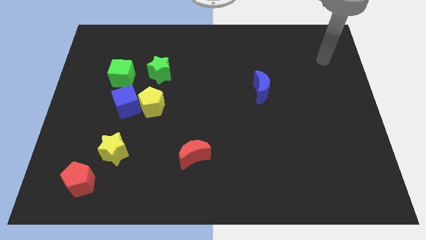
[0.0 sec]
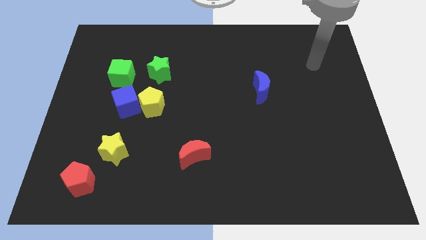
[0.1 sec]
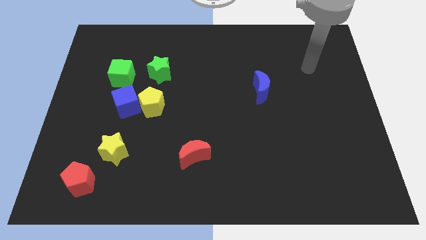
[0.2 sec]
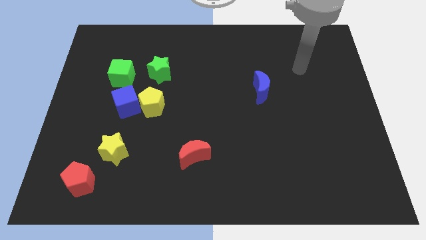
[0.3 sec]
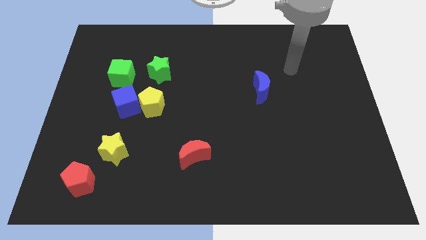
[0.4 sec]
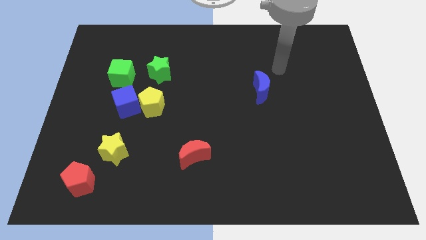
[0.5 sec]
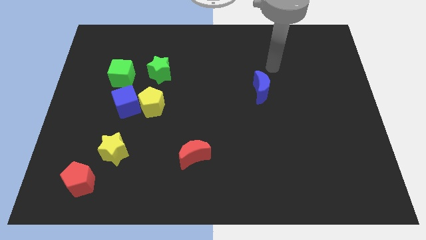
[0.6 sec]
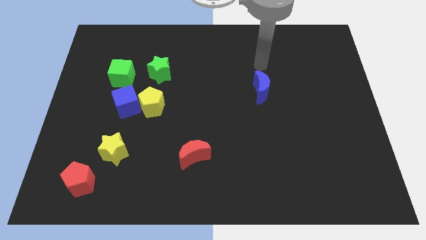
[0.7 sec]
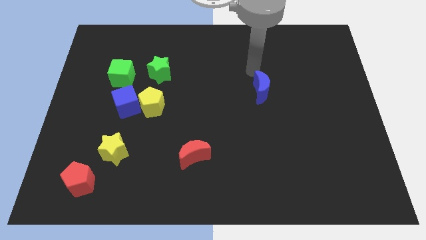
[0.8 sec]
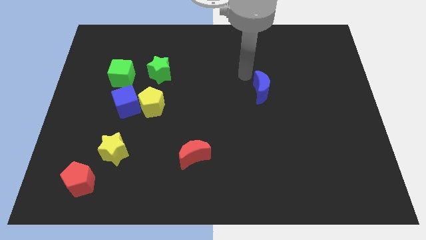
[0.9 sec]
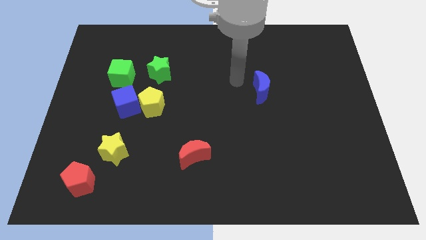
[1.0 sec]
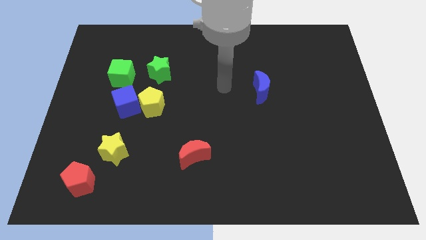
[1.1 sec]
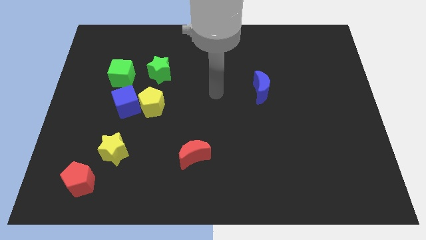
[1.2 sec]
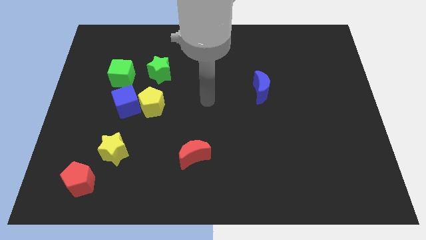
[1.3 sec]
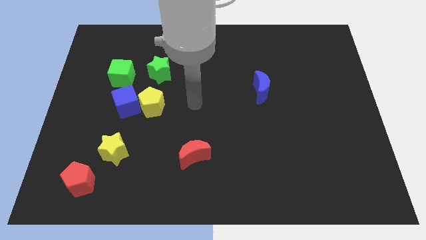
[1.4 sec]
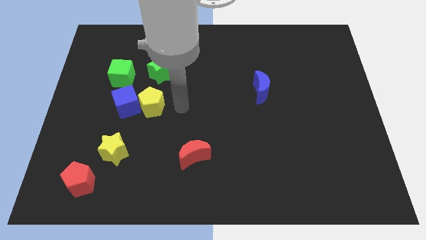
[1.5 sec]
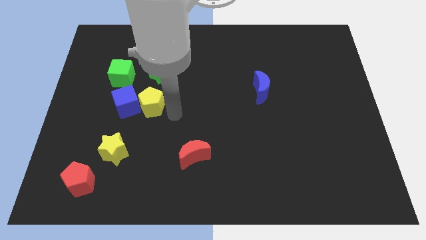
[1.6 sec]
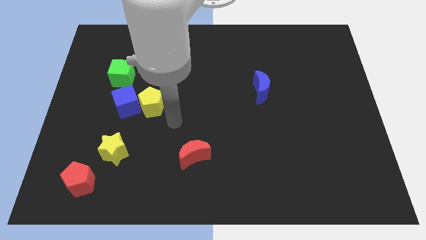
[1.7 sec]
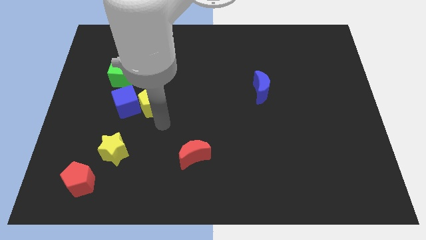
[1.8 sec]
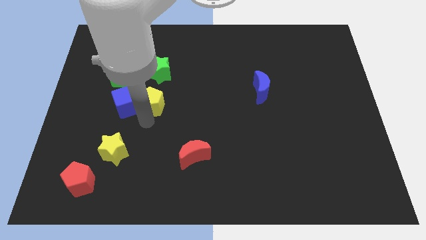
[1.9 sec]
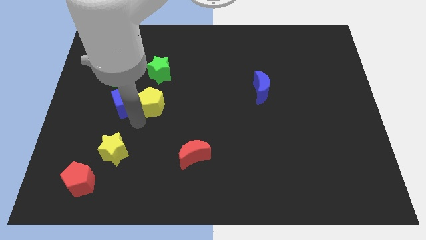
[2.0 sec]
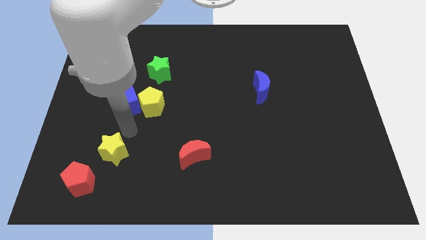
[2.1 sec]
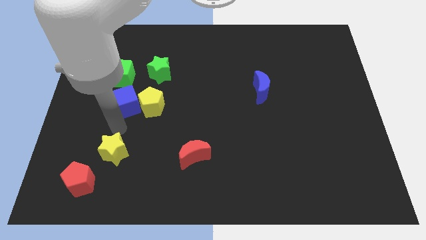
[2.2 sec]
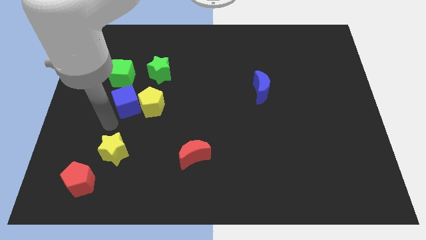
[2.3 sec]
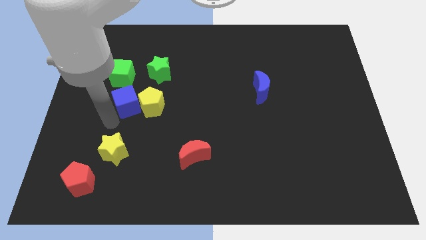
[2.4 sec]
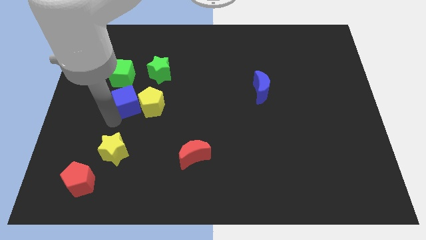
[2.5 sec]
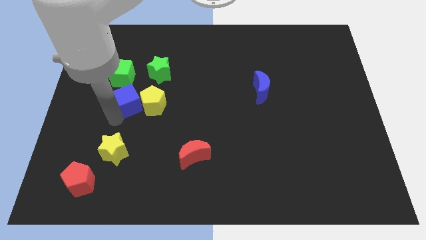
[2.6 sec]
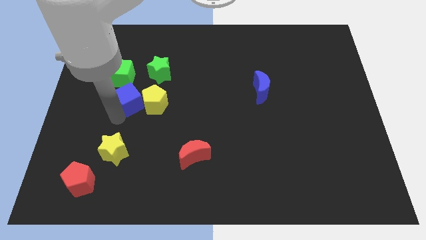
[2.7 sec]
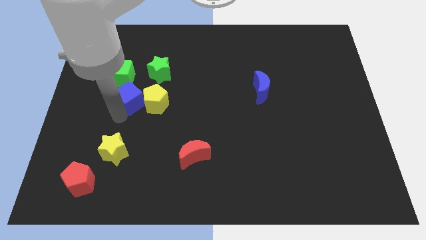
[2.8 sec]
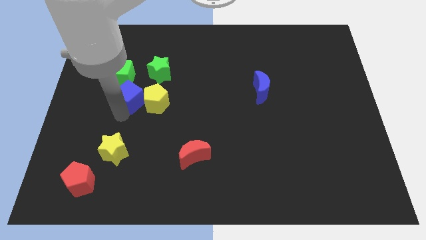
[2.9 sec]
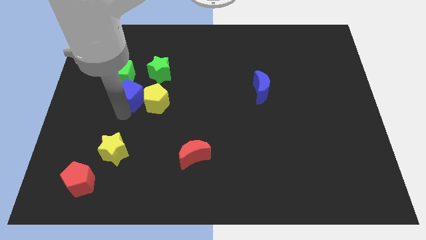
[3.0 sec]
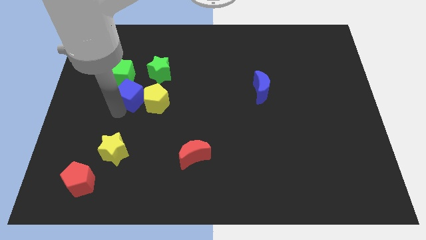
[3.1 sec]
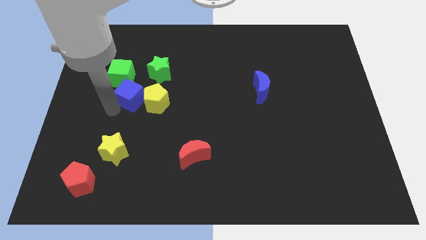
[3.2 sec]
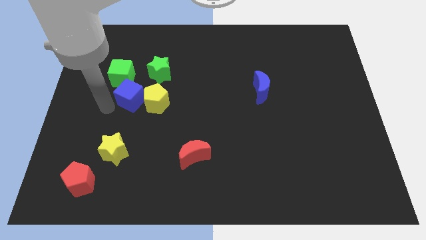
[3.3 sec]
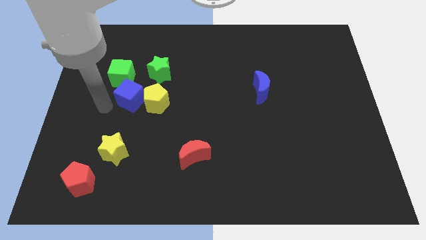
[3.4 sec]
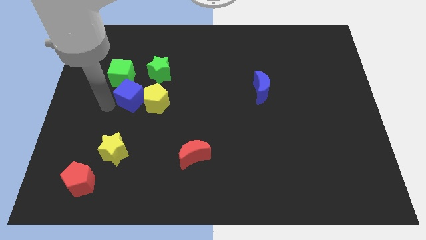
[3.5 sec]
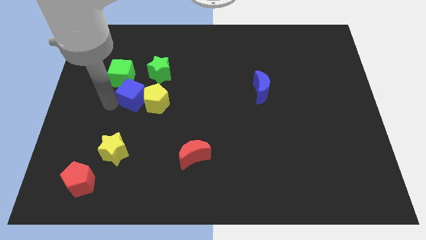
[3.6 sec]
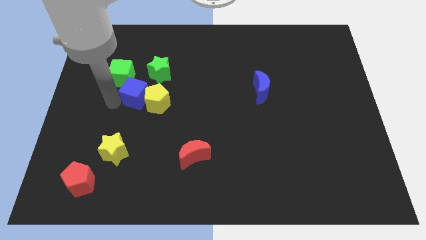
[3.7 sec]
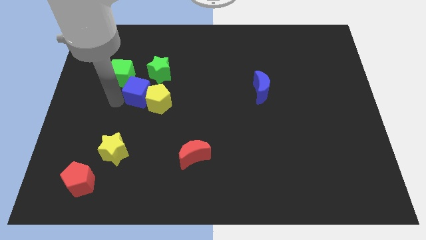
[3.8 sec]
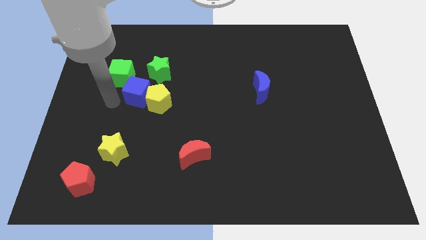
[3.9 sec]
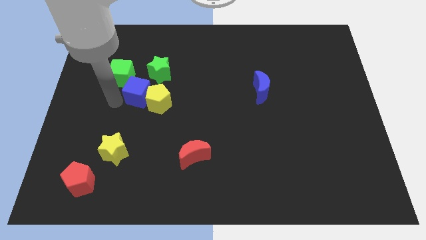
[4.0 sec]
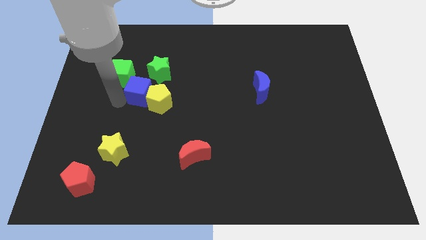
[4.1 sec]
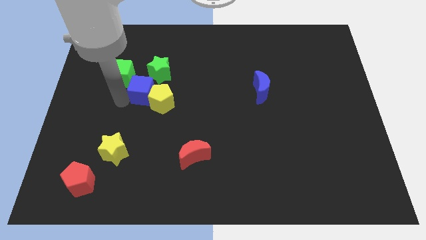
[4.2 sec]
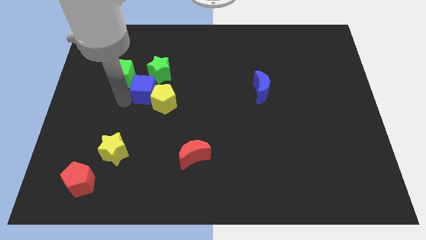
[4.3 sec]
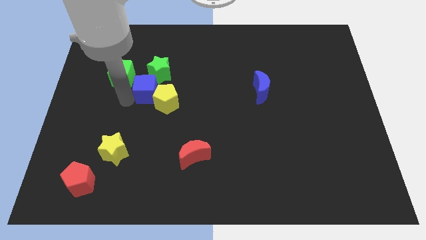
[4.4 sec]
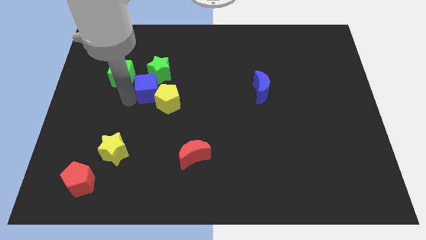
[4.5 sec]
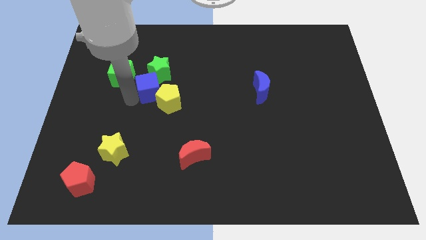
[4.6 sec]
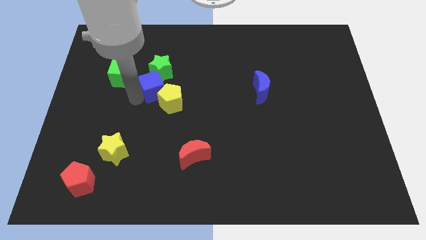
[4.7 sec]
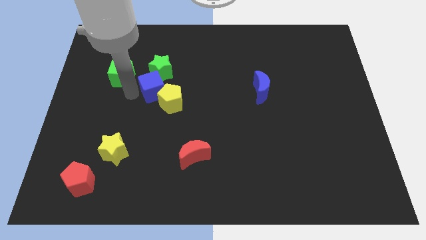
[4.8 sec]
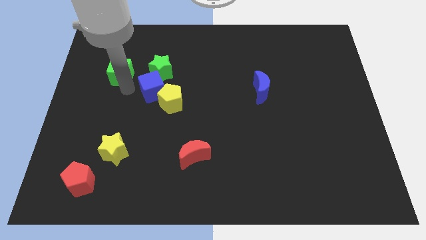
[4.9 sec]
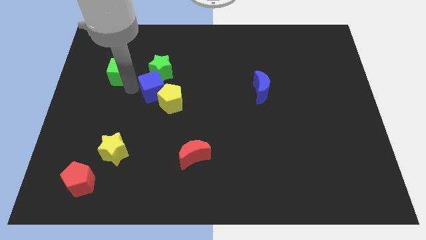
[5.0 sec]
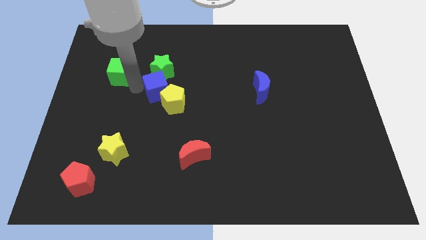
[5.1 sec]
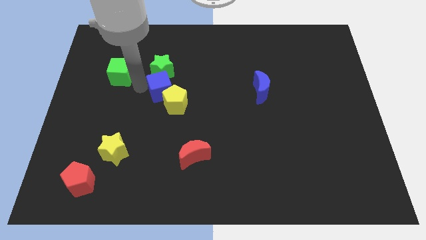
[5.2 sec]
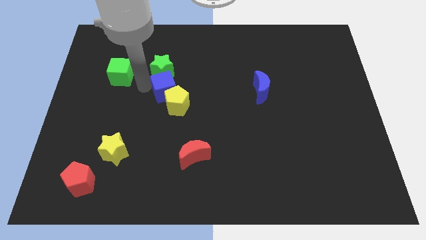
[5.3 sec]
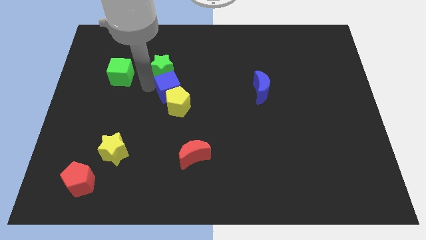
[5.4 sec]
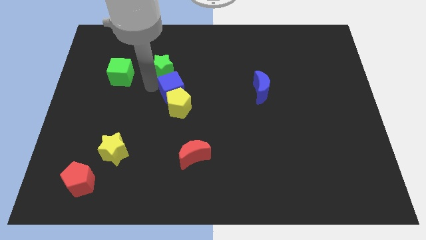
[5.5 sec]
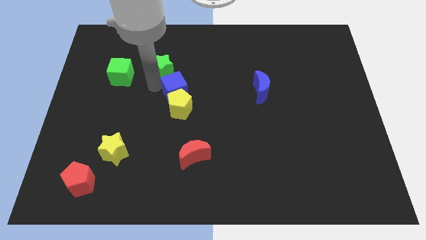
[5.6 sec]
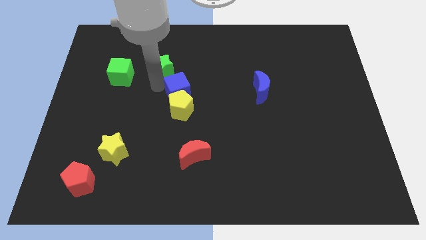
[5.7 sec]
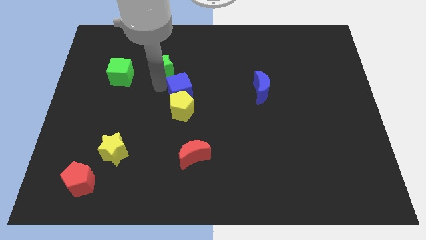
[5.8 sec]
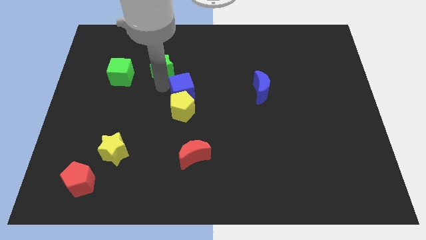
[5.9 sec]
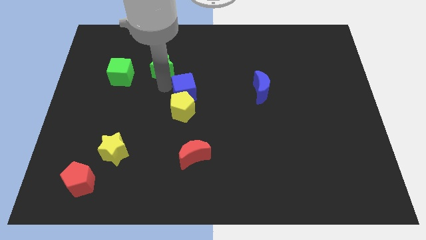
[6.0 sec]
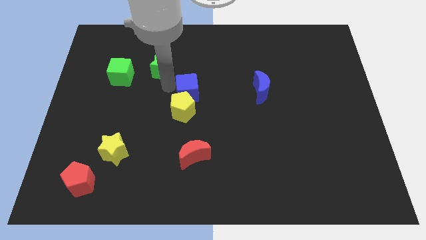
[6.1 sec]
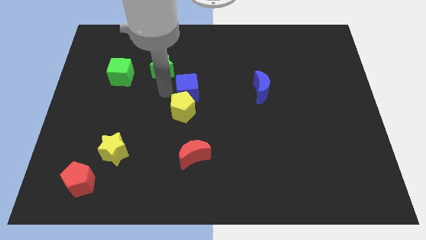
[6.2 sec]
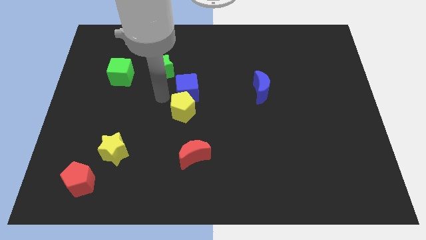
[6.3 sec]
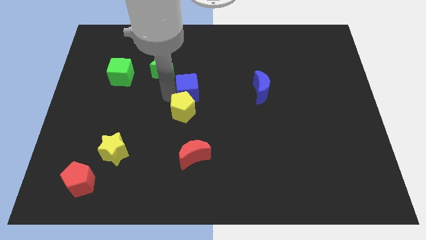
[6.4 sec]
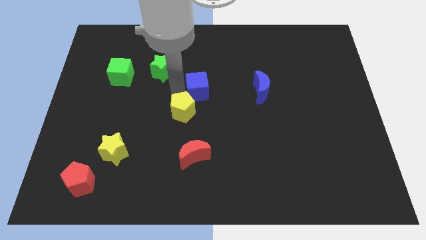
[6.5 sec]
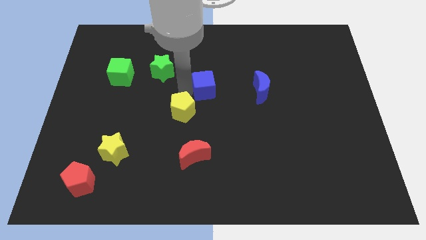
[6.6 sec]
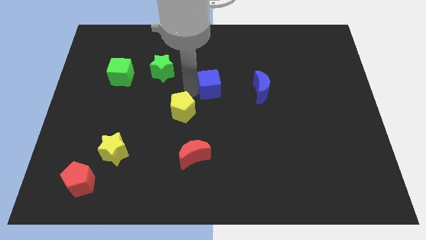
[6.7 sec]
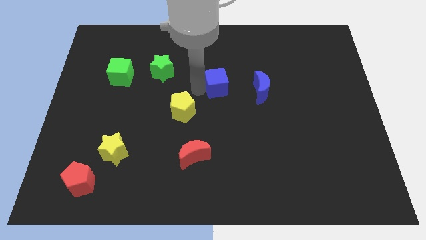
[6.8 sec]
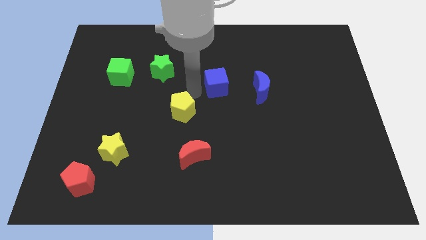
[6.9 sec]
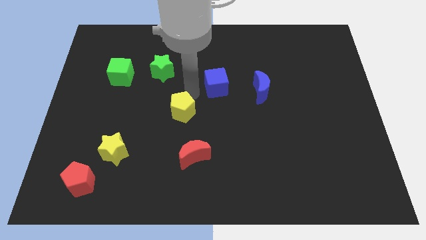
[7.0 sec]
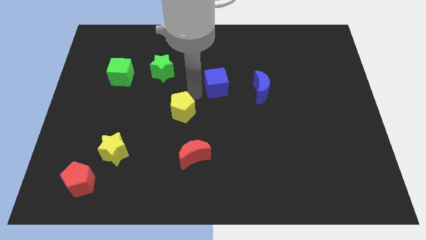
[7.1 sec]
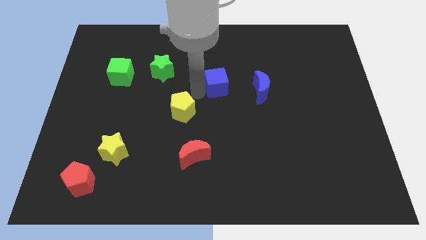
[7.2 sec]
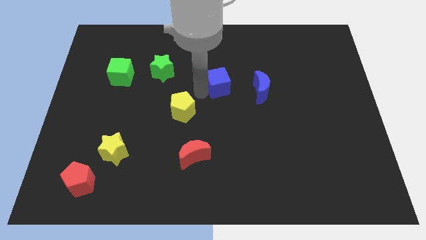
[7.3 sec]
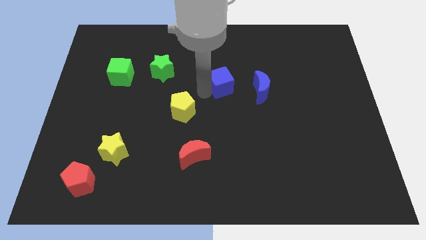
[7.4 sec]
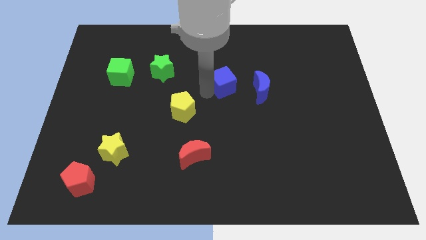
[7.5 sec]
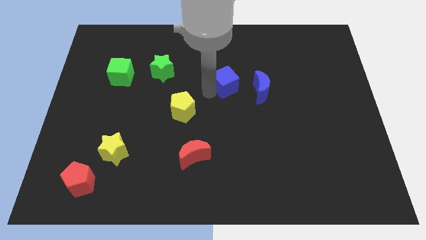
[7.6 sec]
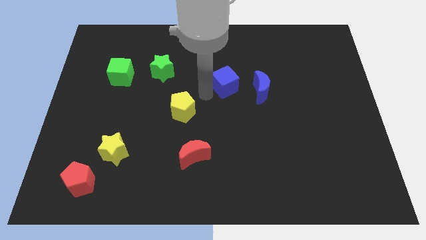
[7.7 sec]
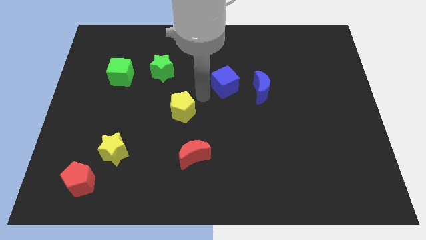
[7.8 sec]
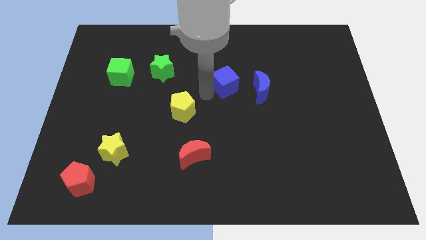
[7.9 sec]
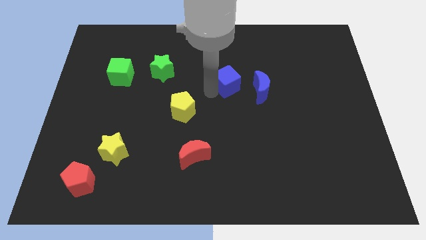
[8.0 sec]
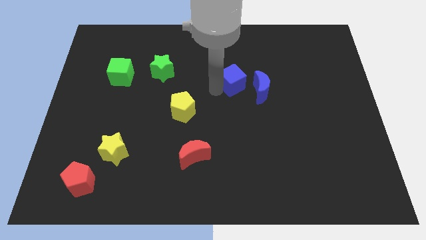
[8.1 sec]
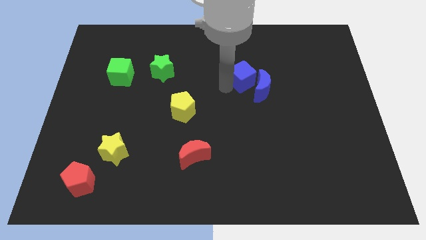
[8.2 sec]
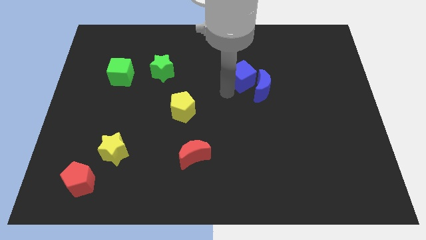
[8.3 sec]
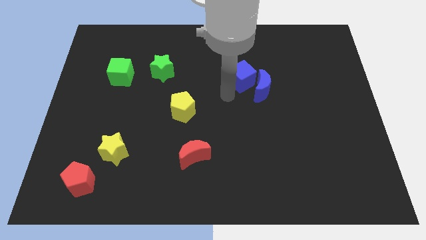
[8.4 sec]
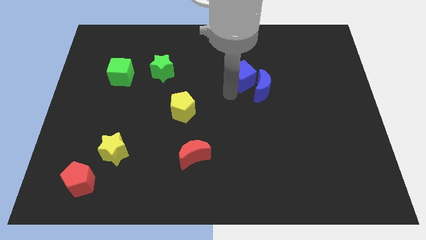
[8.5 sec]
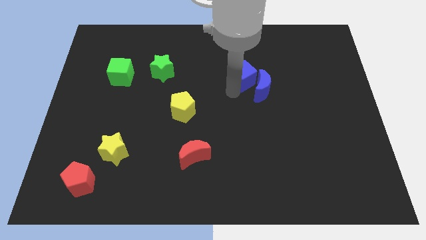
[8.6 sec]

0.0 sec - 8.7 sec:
move the blue cube above the blue moon
